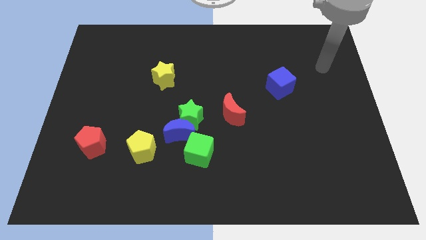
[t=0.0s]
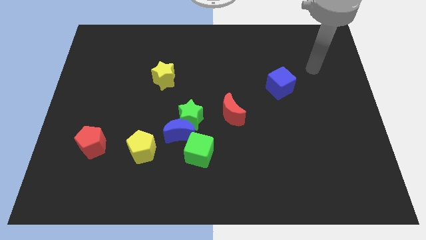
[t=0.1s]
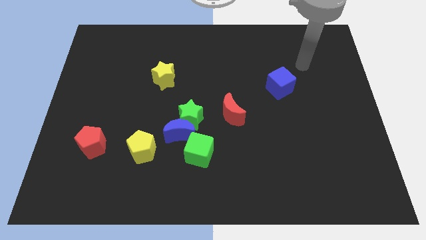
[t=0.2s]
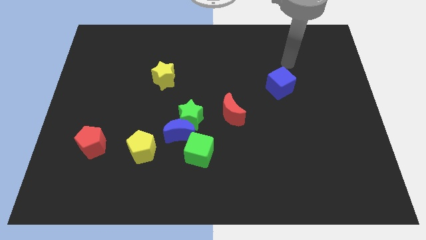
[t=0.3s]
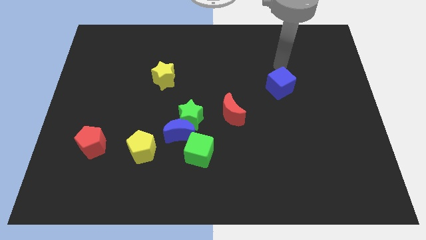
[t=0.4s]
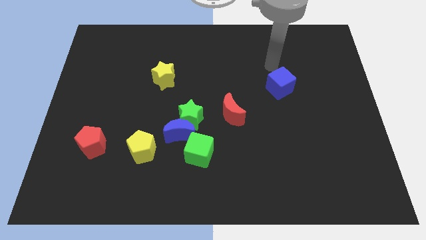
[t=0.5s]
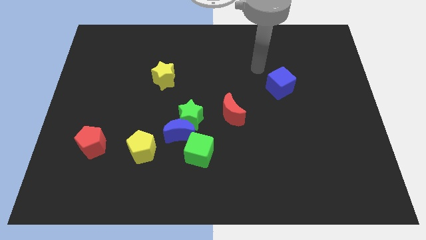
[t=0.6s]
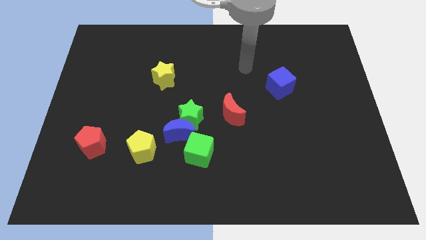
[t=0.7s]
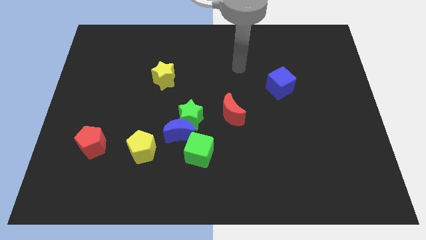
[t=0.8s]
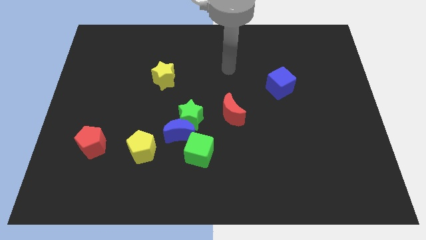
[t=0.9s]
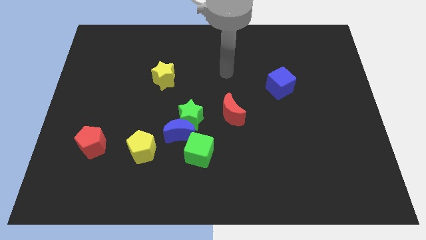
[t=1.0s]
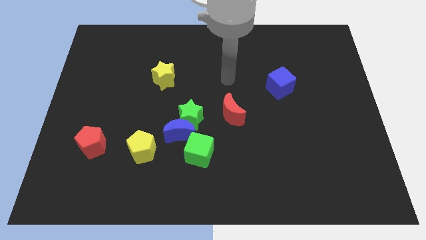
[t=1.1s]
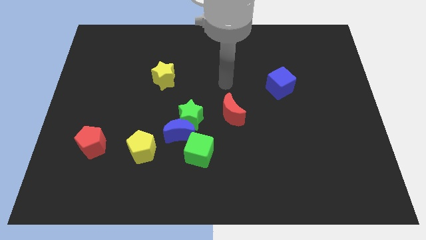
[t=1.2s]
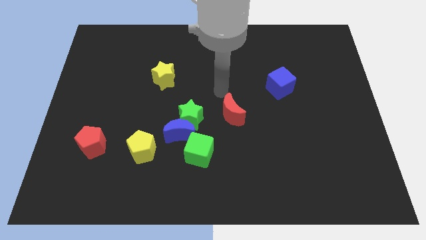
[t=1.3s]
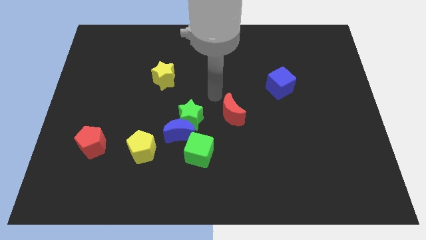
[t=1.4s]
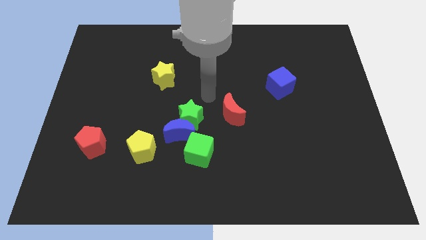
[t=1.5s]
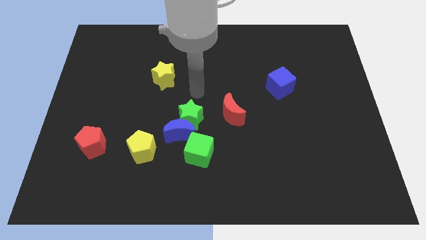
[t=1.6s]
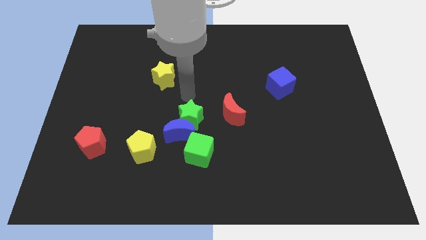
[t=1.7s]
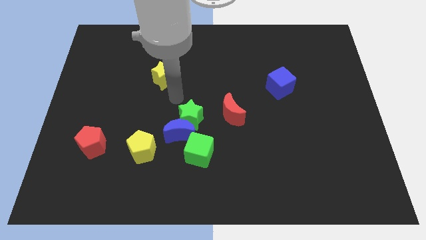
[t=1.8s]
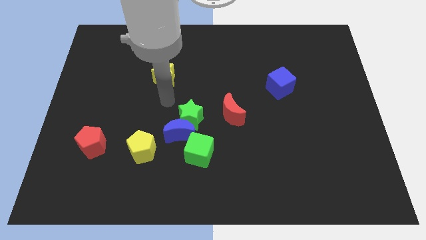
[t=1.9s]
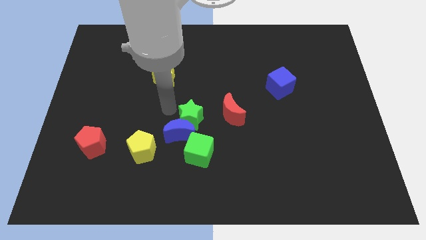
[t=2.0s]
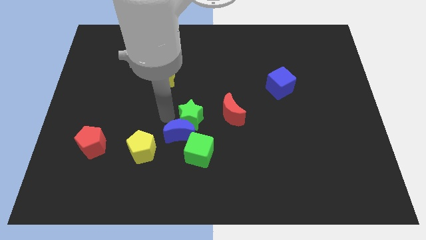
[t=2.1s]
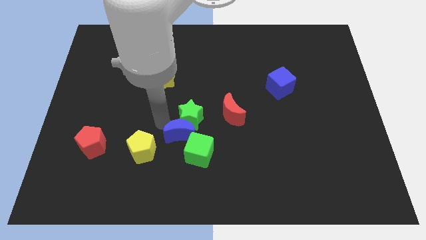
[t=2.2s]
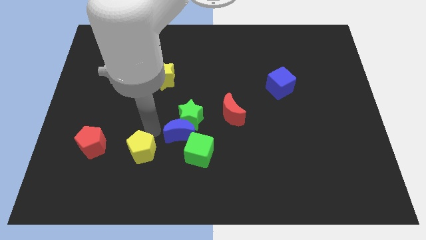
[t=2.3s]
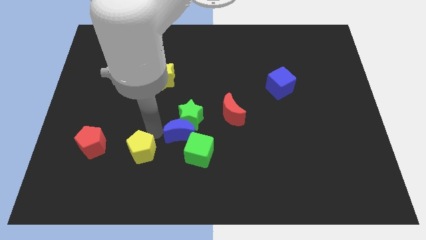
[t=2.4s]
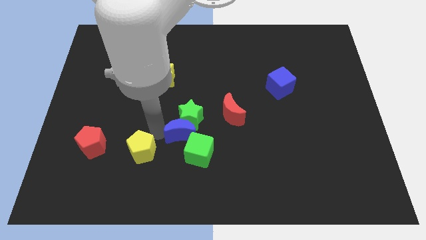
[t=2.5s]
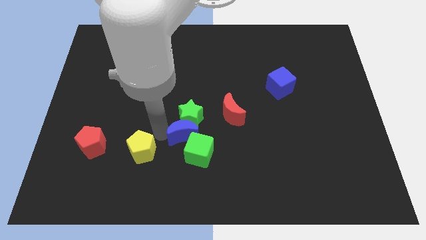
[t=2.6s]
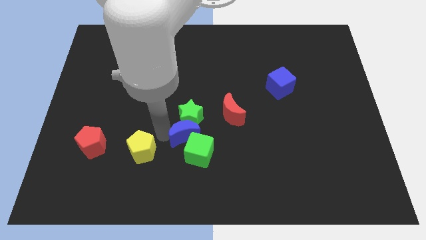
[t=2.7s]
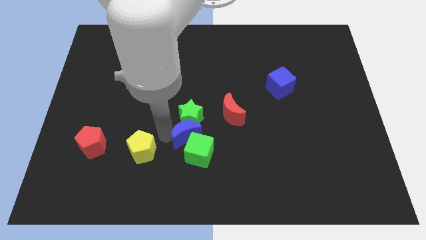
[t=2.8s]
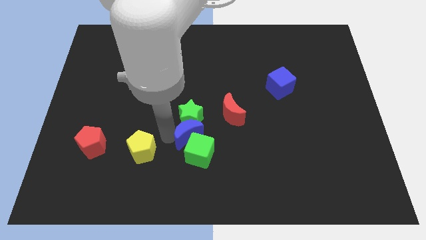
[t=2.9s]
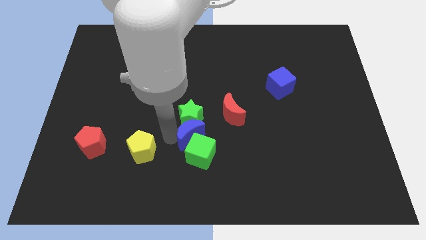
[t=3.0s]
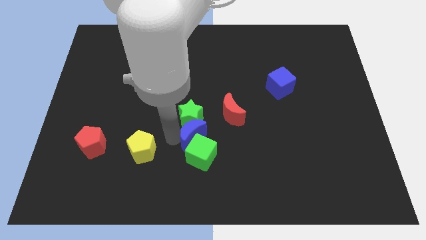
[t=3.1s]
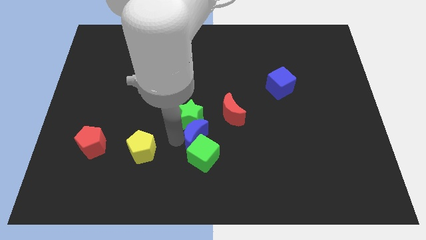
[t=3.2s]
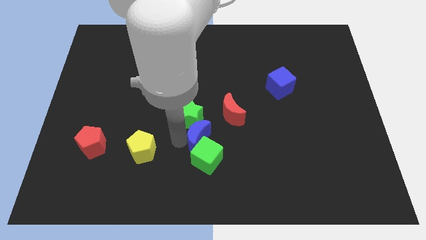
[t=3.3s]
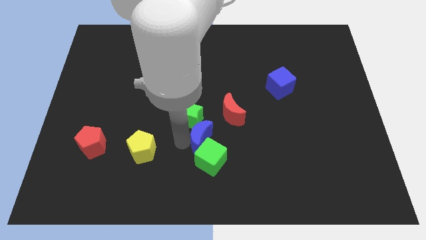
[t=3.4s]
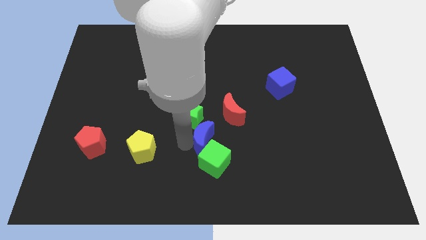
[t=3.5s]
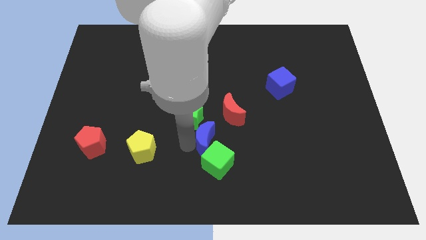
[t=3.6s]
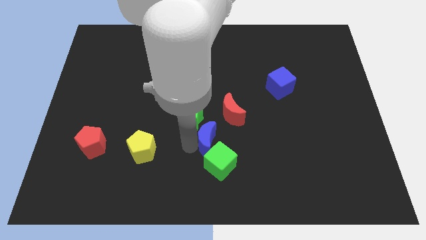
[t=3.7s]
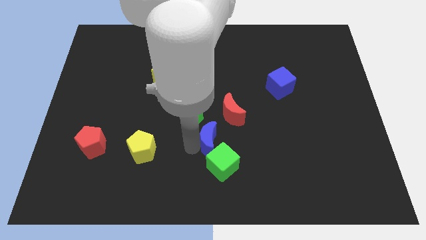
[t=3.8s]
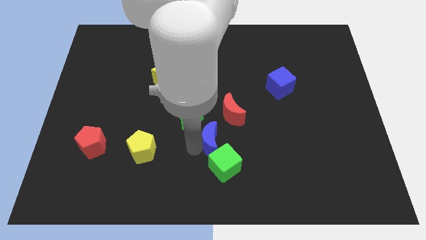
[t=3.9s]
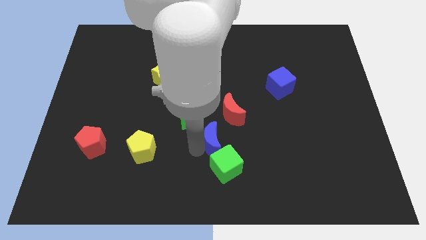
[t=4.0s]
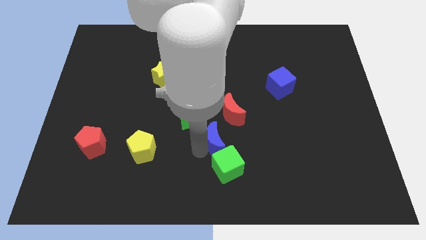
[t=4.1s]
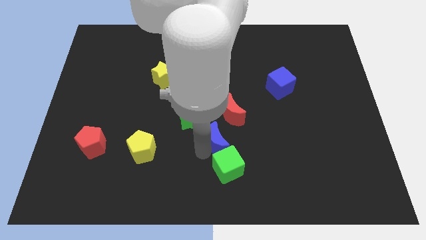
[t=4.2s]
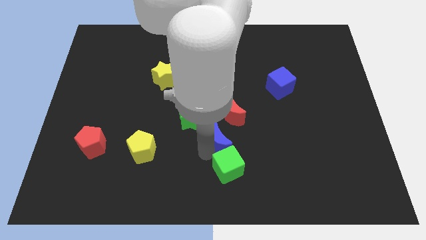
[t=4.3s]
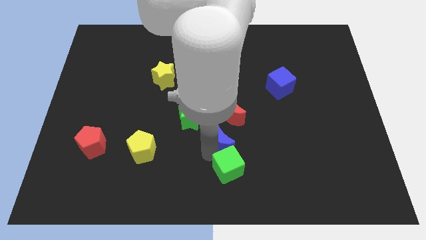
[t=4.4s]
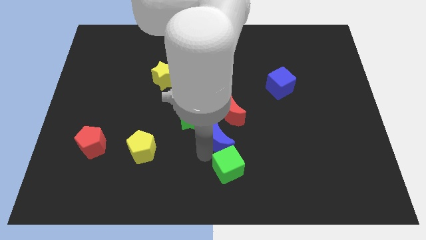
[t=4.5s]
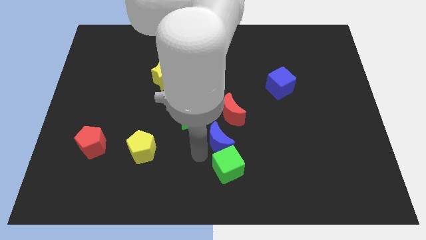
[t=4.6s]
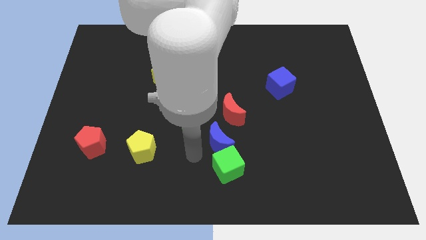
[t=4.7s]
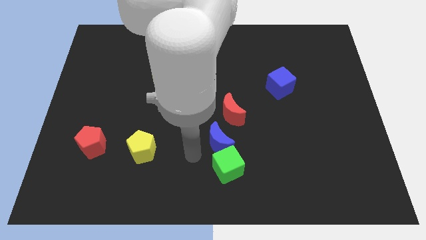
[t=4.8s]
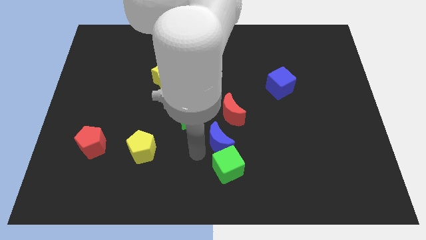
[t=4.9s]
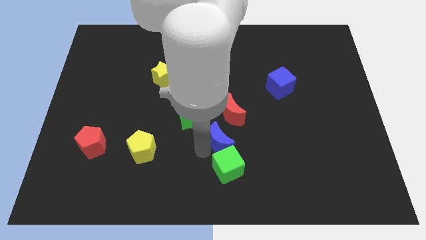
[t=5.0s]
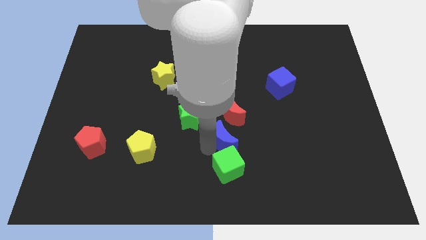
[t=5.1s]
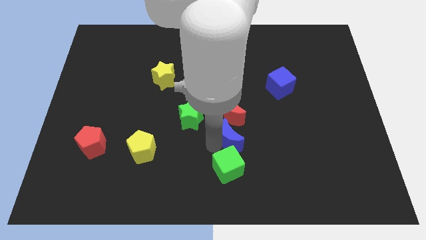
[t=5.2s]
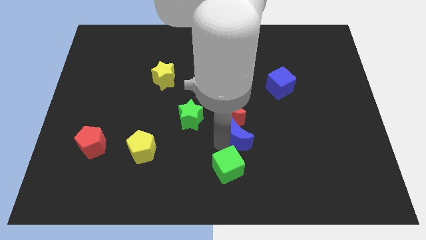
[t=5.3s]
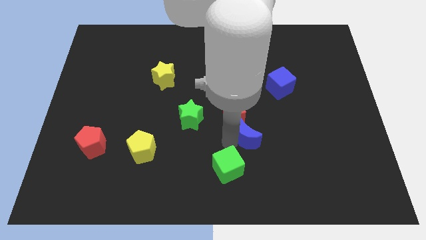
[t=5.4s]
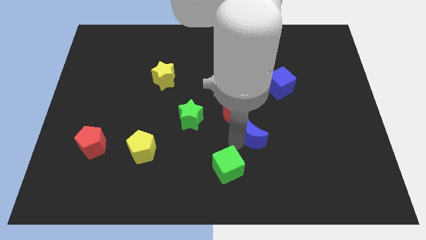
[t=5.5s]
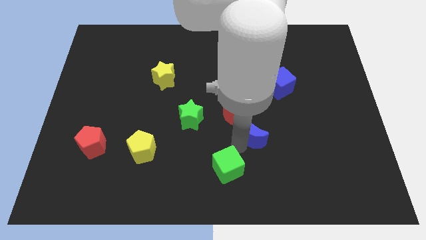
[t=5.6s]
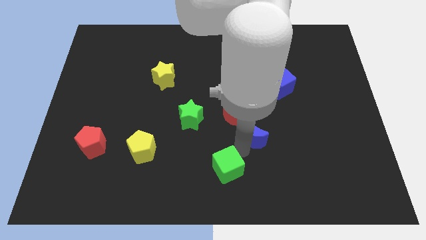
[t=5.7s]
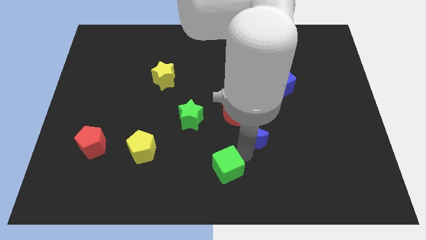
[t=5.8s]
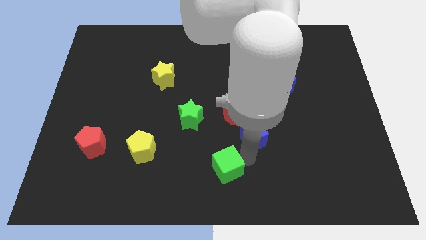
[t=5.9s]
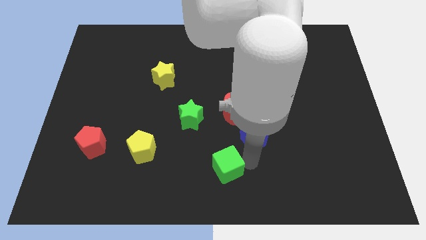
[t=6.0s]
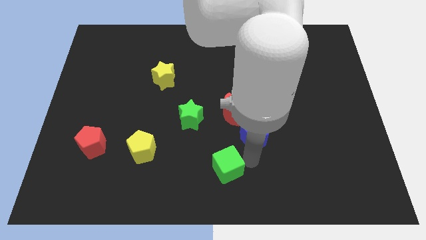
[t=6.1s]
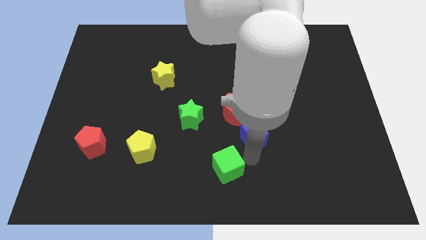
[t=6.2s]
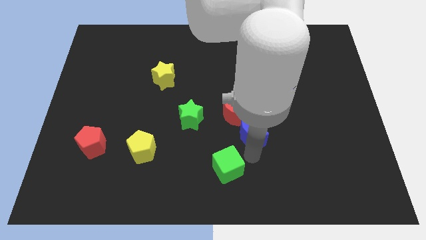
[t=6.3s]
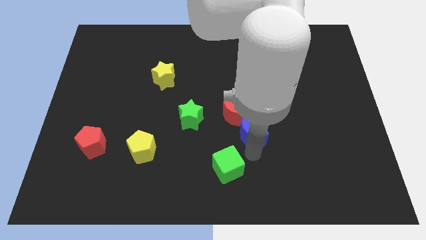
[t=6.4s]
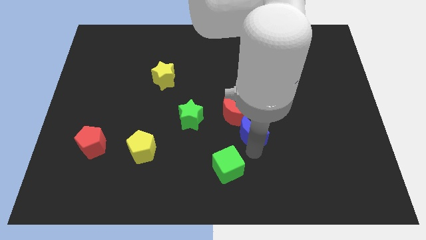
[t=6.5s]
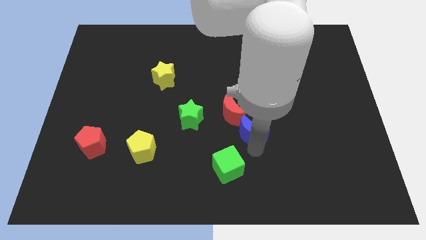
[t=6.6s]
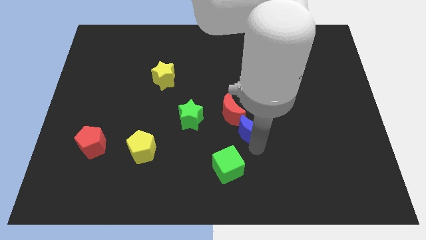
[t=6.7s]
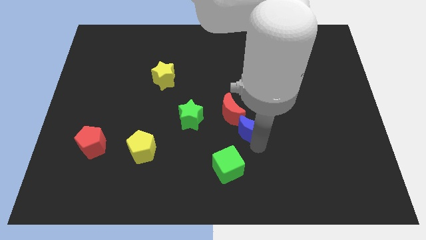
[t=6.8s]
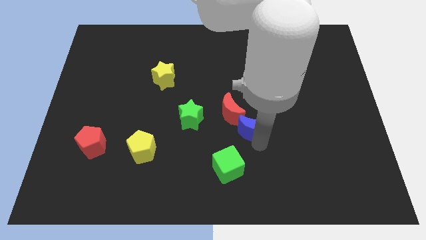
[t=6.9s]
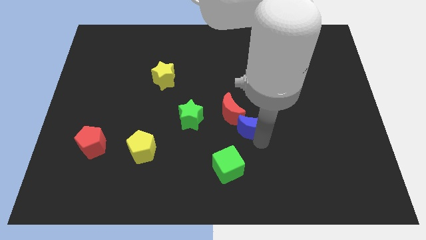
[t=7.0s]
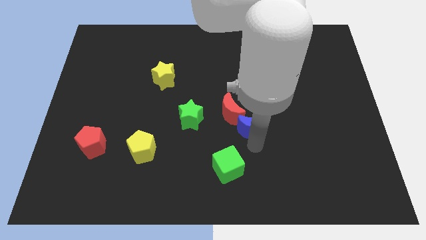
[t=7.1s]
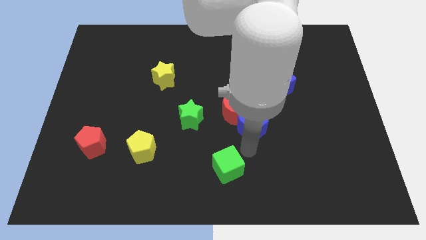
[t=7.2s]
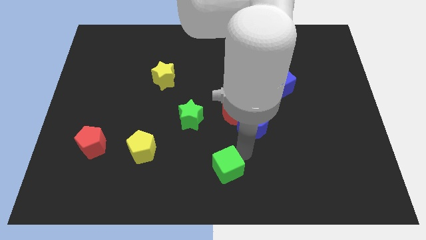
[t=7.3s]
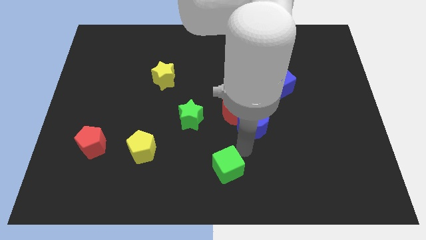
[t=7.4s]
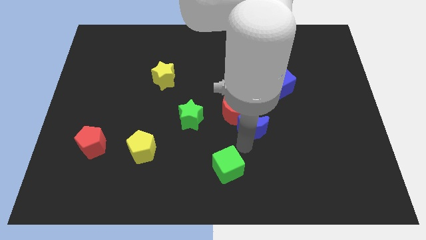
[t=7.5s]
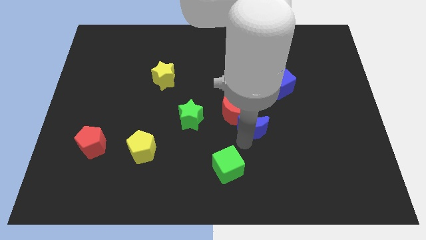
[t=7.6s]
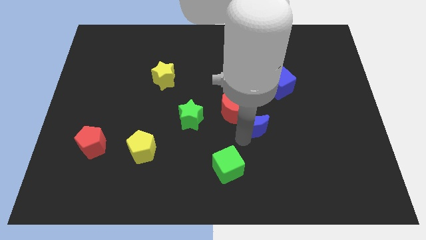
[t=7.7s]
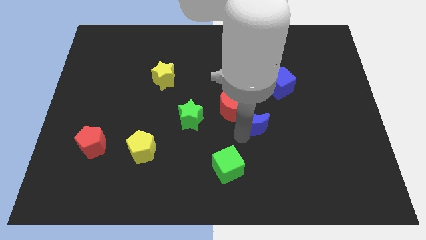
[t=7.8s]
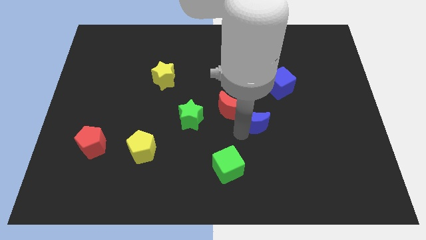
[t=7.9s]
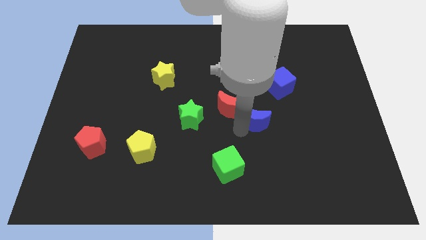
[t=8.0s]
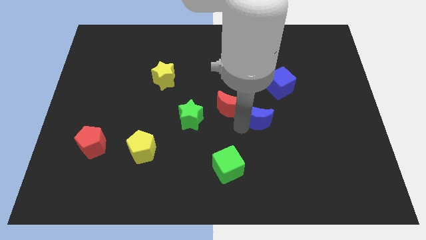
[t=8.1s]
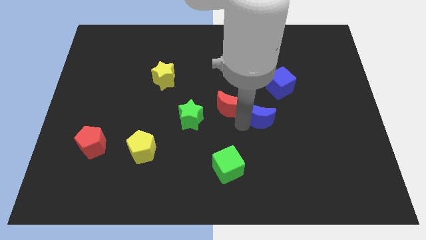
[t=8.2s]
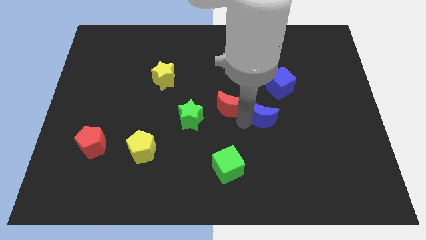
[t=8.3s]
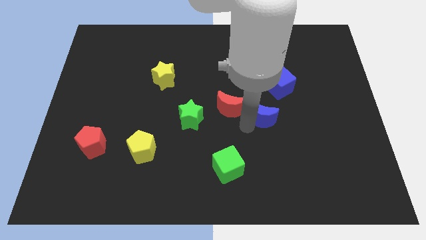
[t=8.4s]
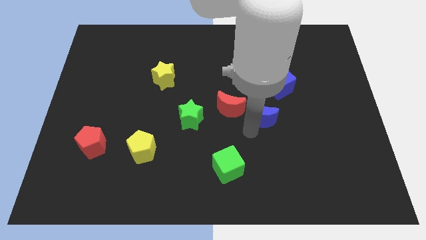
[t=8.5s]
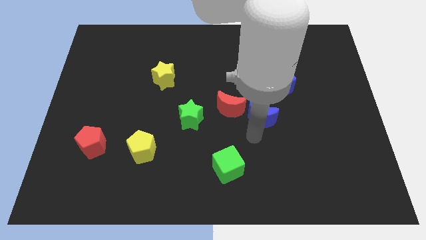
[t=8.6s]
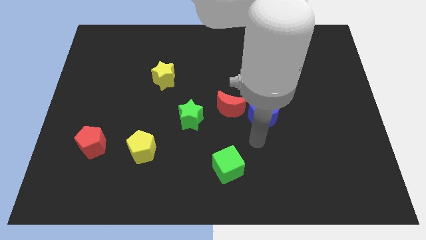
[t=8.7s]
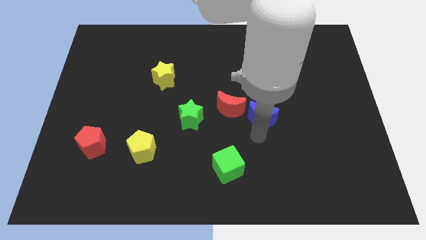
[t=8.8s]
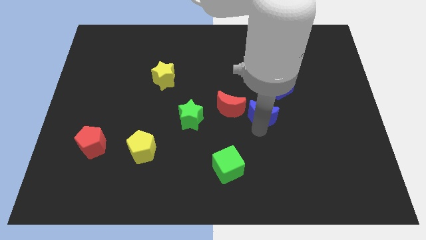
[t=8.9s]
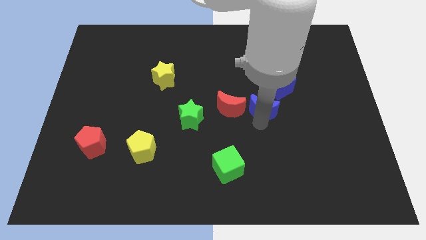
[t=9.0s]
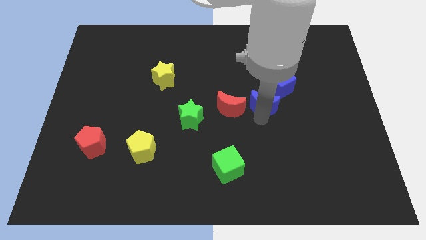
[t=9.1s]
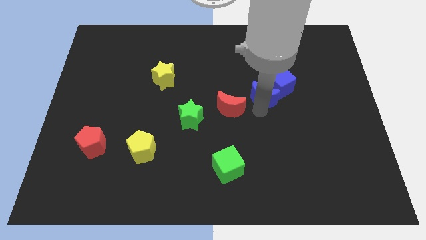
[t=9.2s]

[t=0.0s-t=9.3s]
slide the blue moon towards the blue cube
